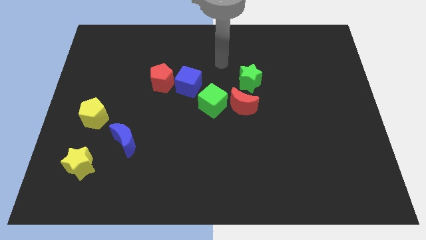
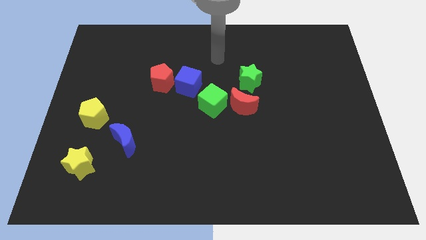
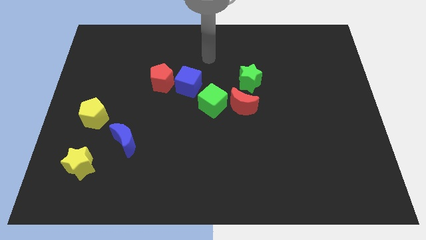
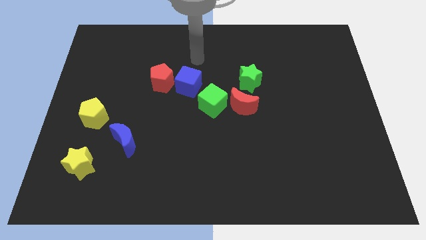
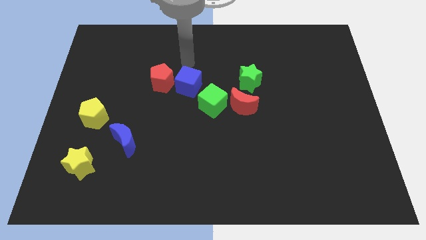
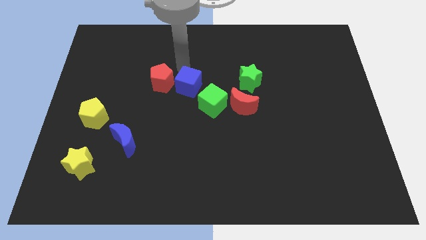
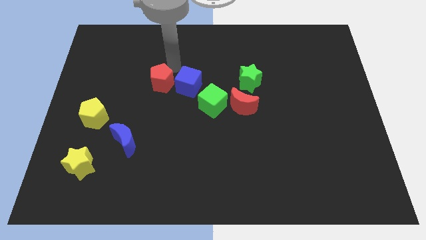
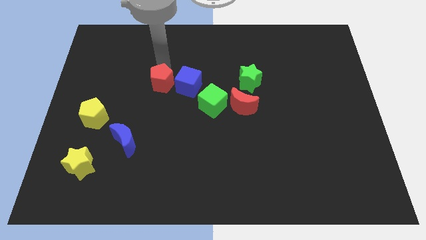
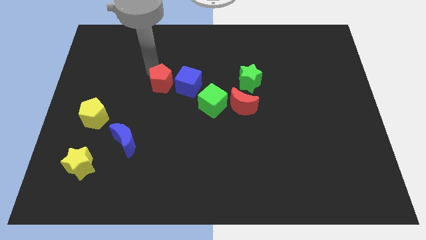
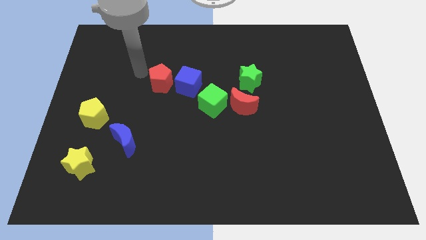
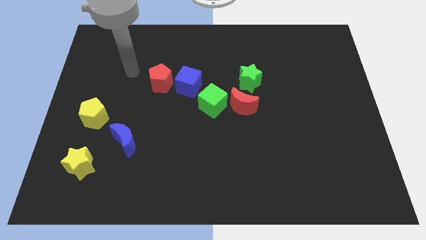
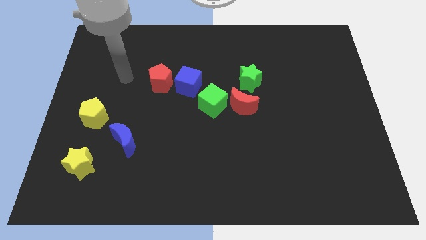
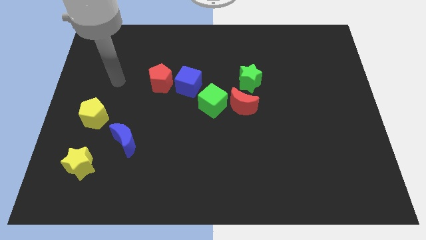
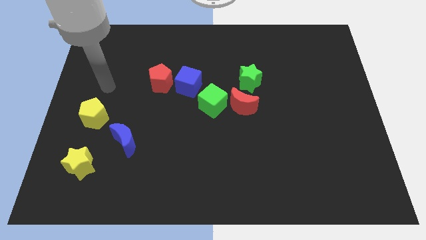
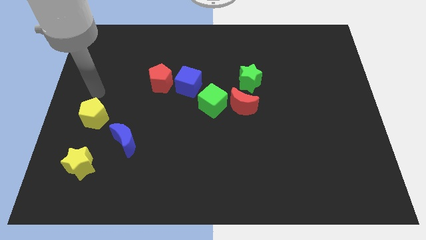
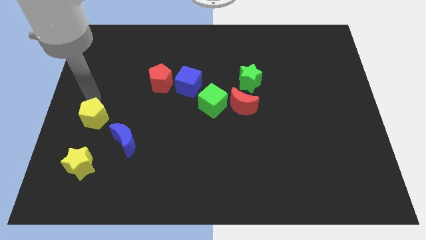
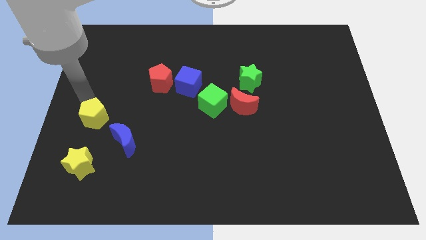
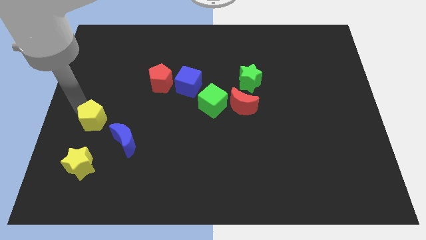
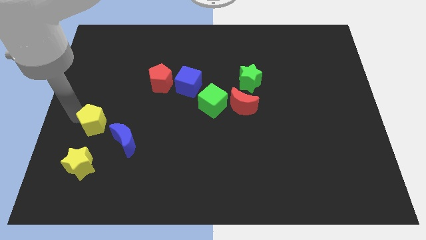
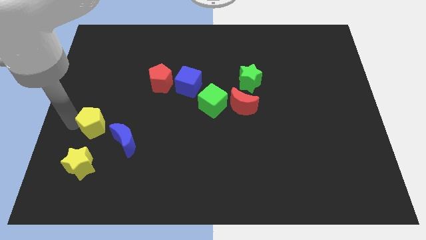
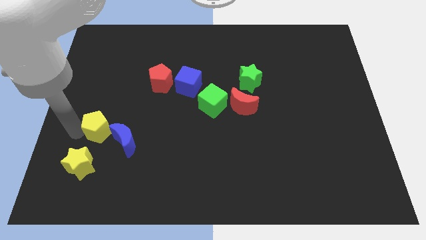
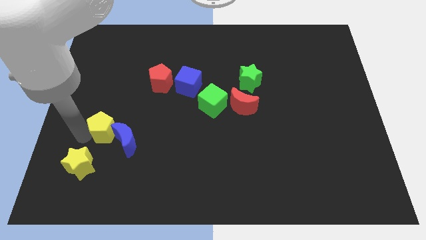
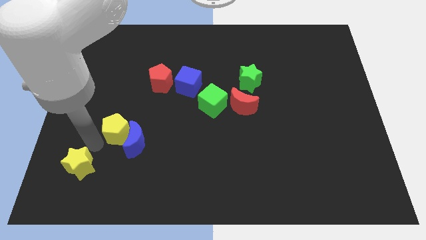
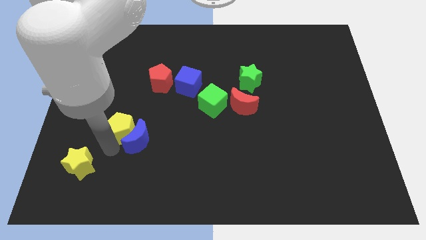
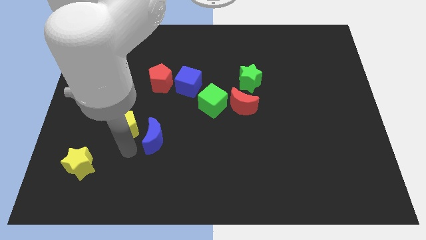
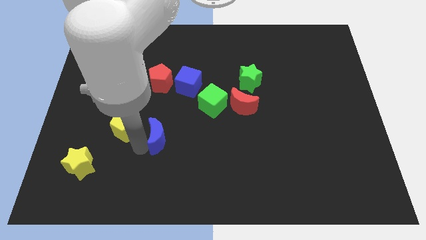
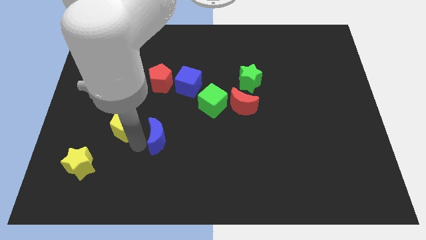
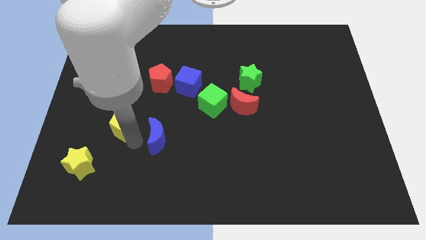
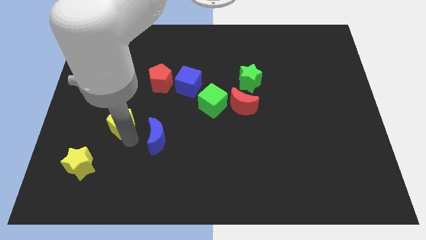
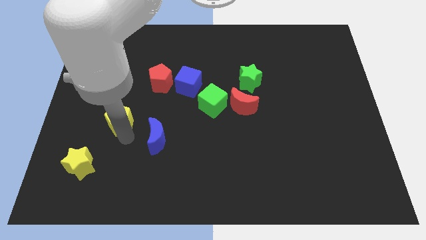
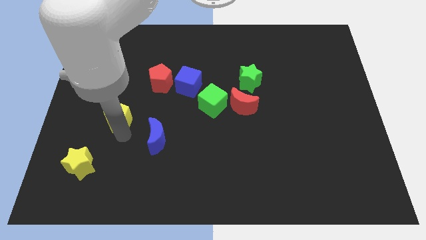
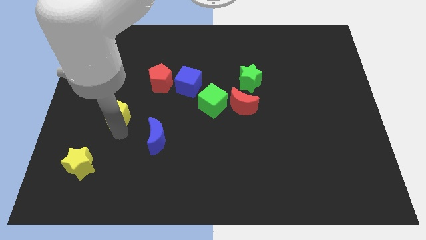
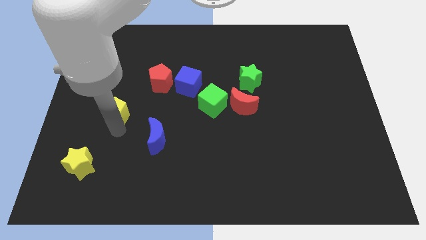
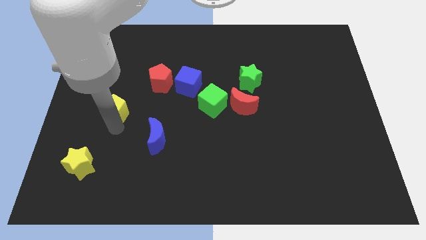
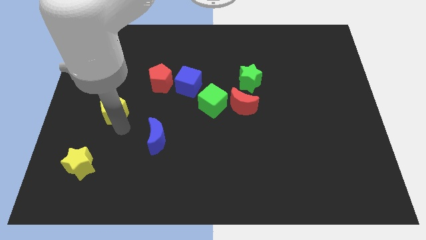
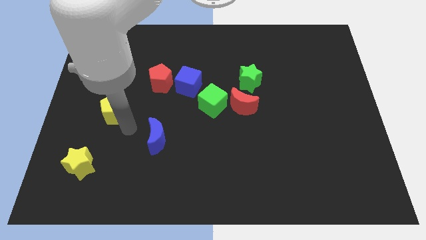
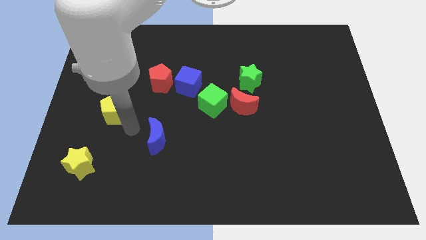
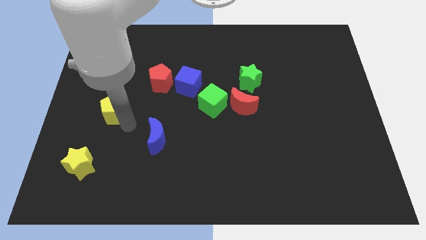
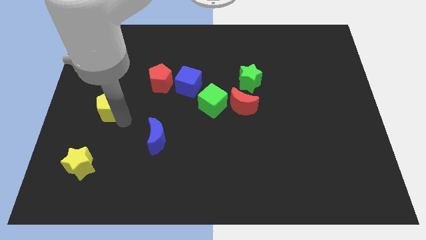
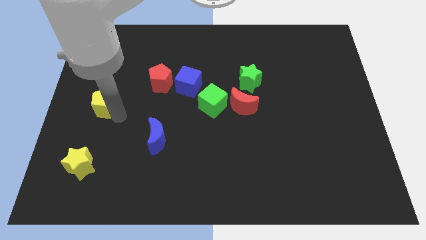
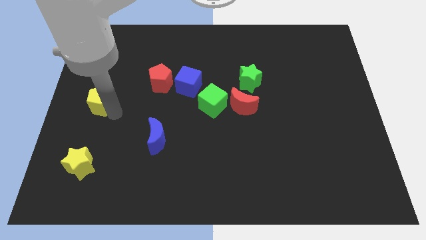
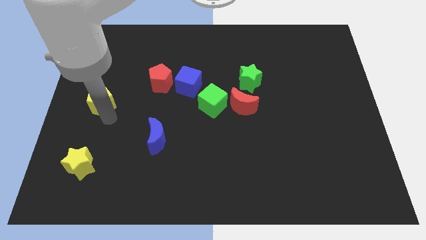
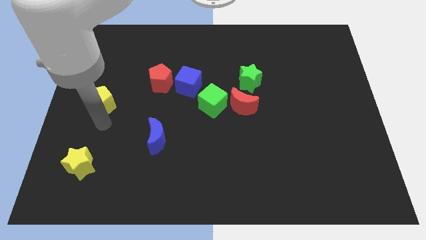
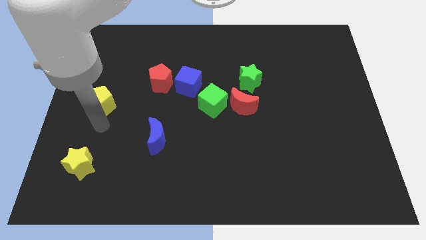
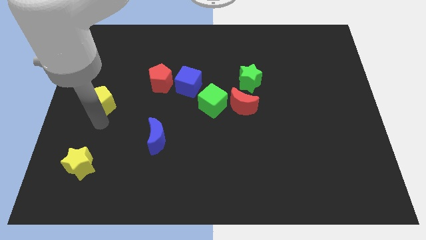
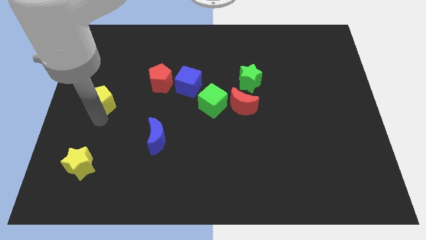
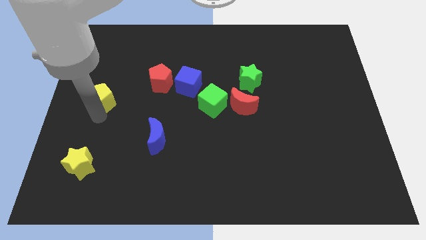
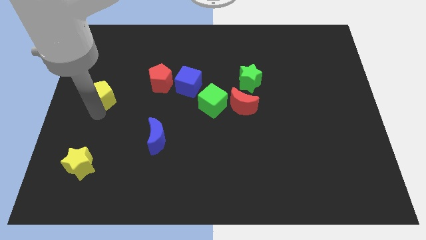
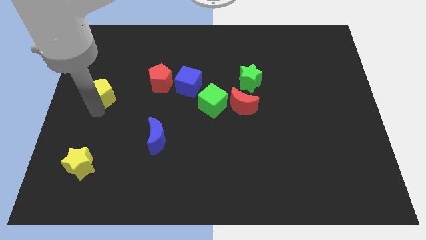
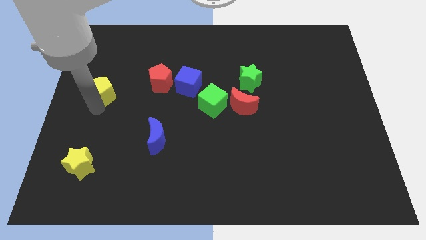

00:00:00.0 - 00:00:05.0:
slide the yellow pentagon a little up

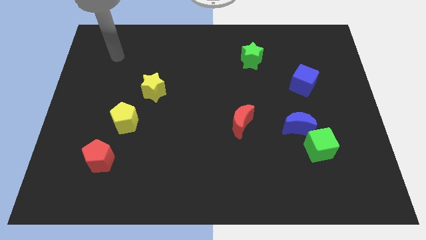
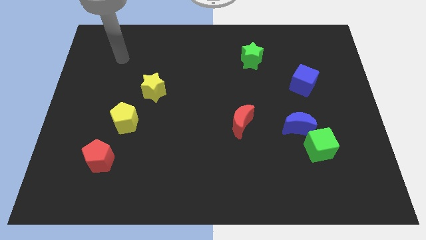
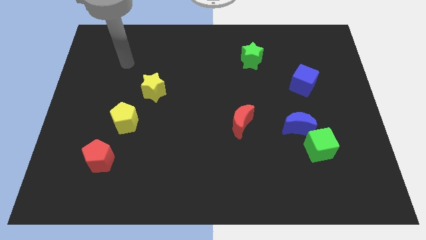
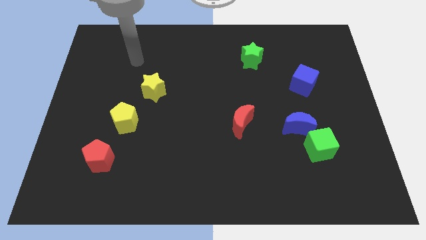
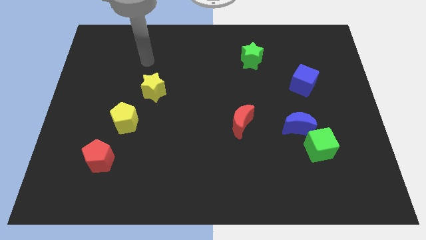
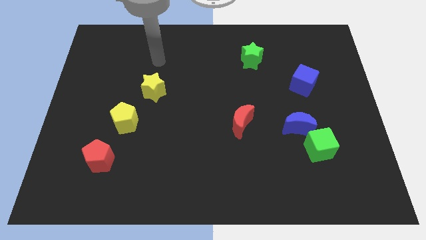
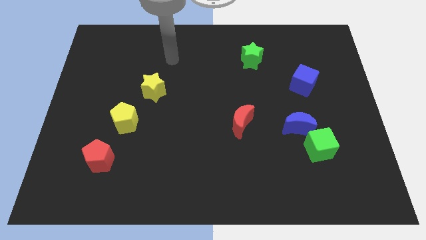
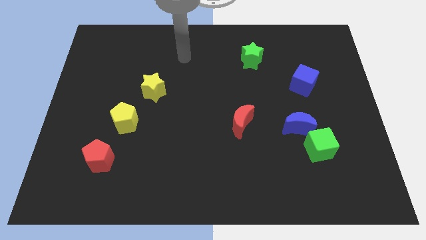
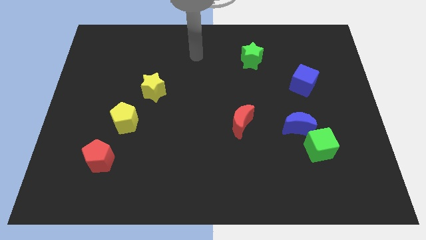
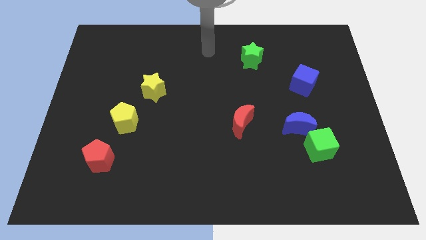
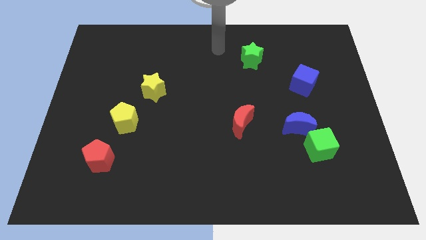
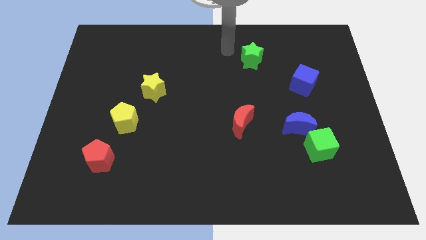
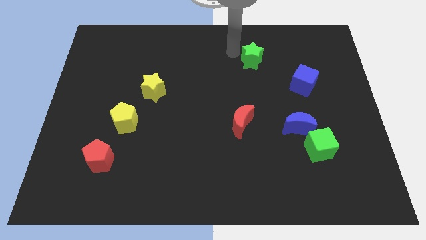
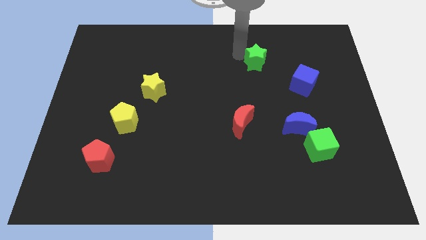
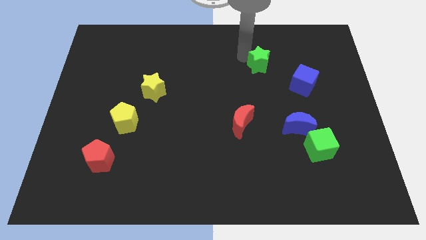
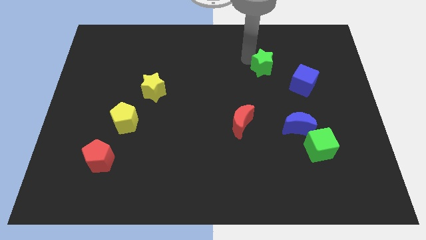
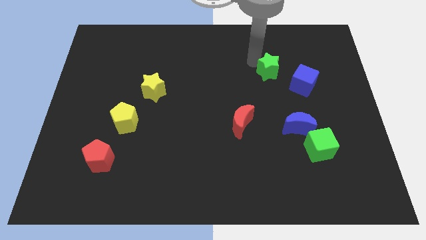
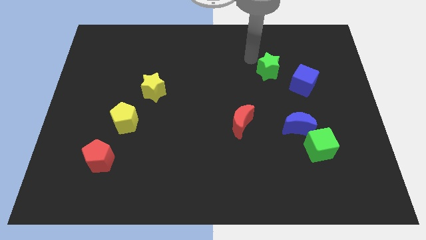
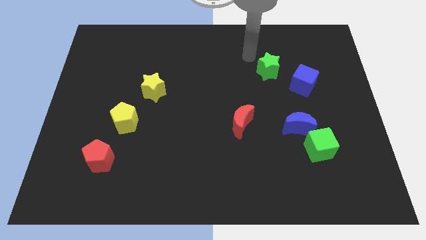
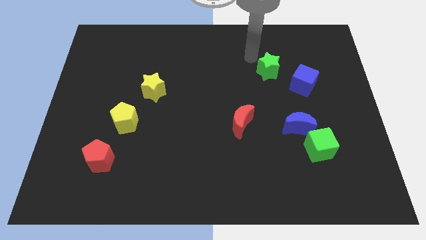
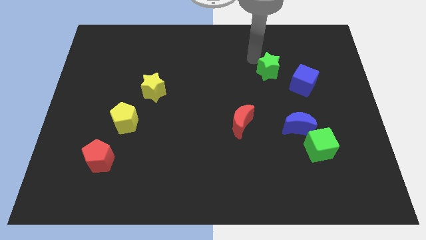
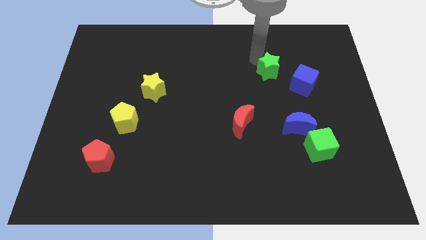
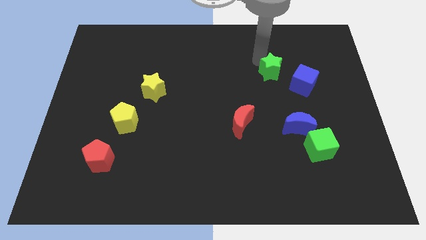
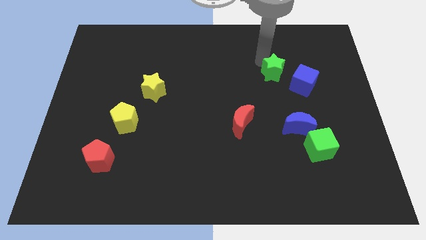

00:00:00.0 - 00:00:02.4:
slide the green star a bit diagonally down and right

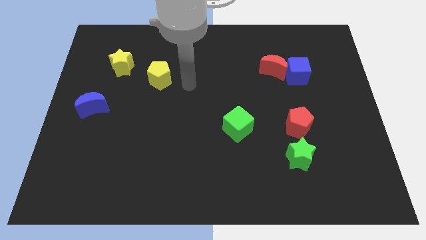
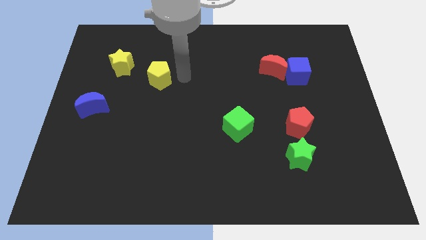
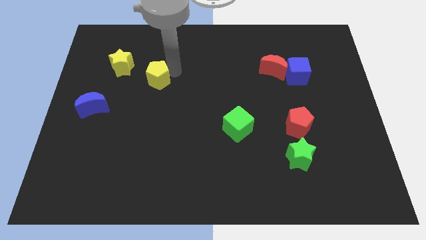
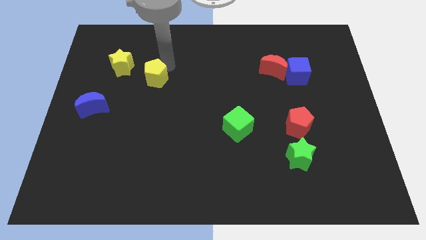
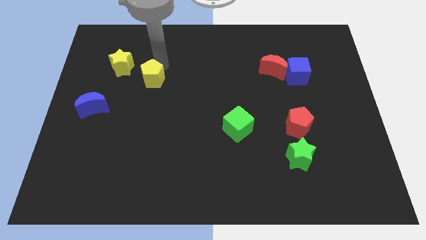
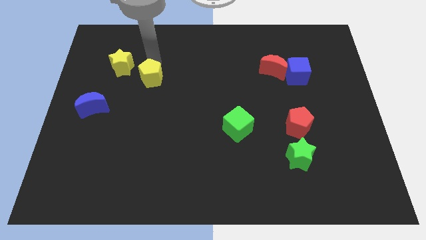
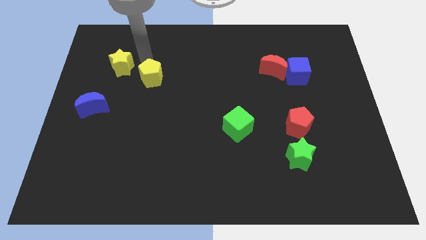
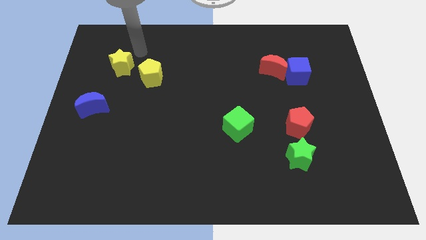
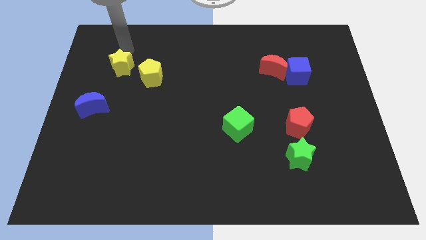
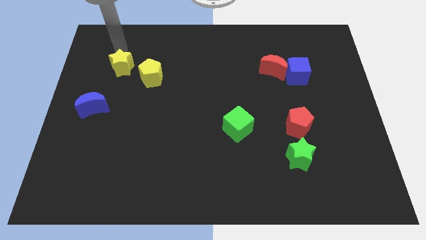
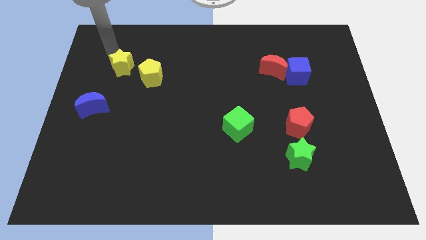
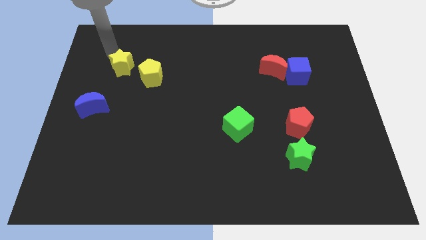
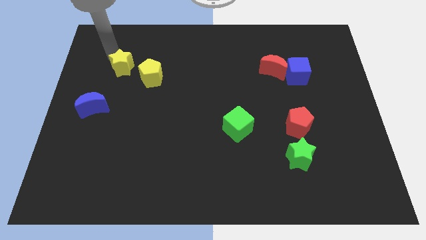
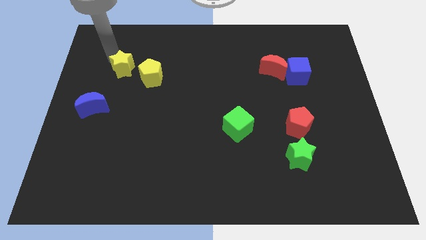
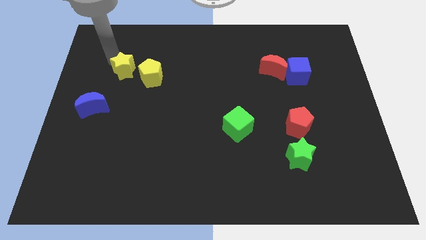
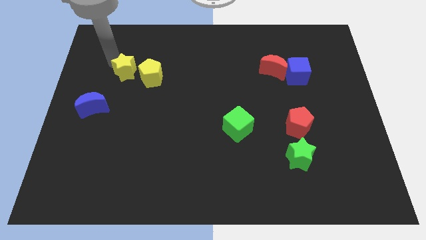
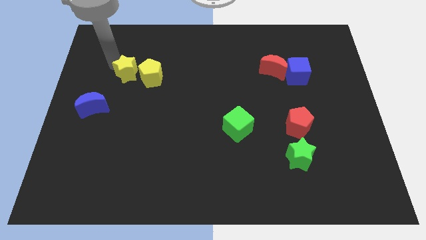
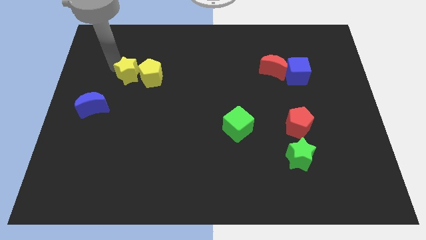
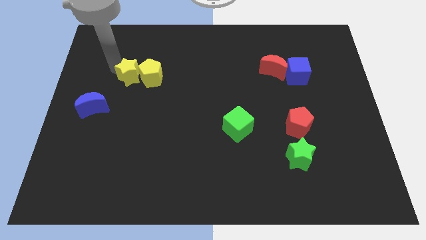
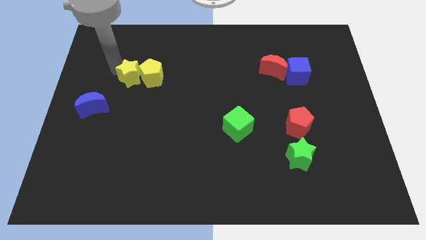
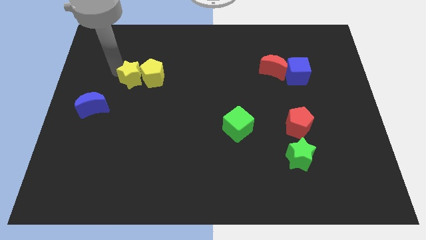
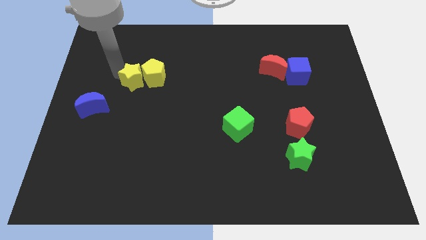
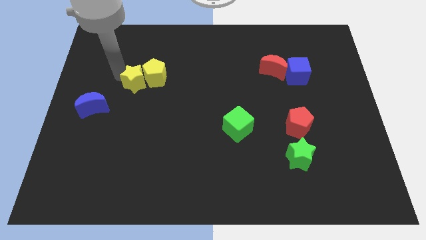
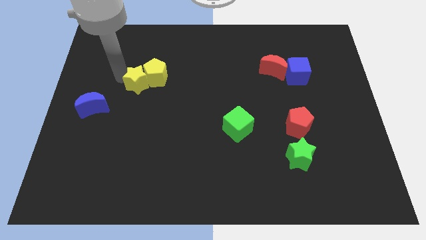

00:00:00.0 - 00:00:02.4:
push the yellow star downwards and right diagonally a little bit
